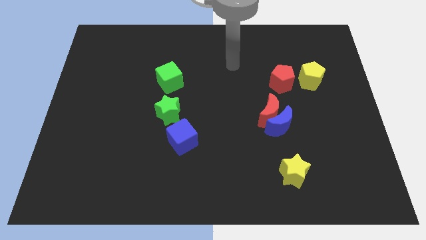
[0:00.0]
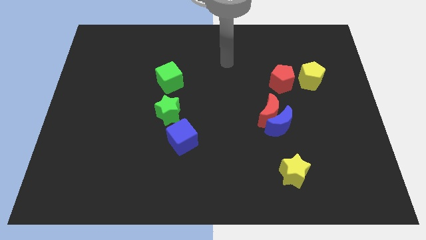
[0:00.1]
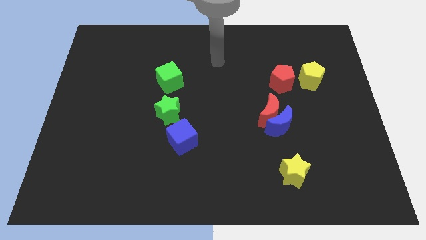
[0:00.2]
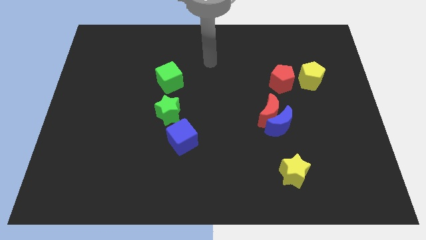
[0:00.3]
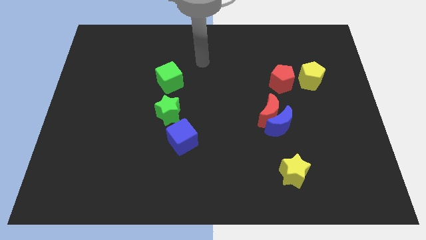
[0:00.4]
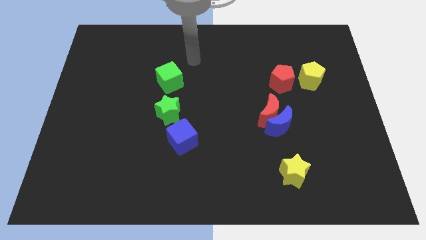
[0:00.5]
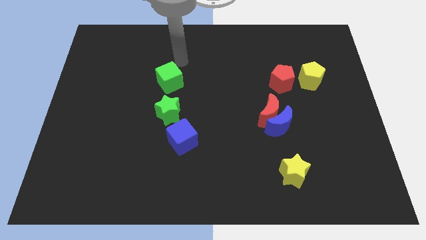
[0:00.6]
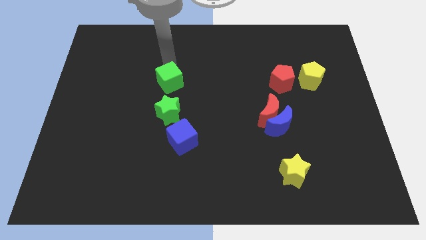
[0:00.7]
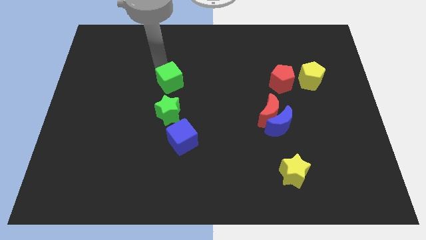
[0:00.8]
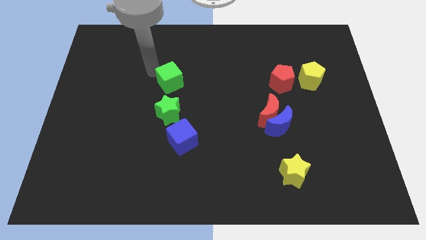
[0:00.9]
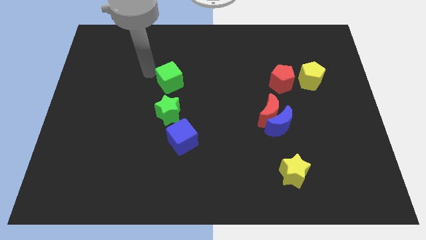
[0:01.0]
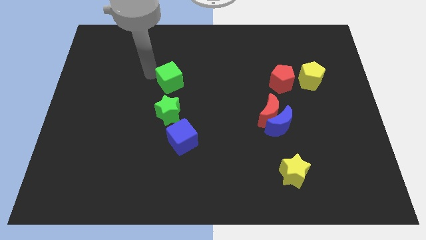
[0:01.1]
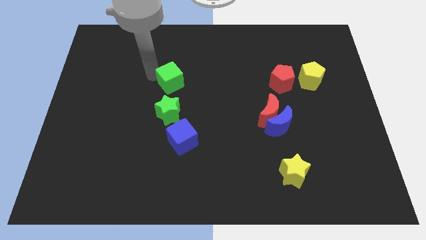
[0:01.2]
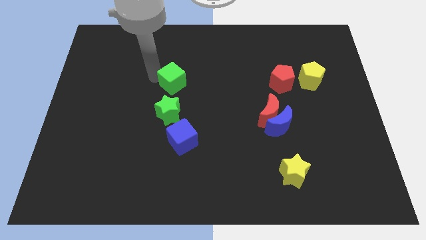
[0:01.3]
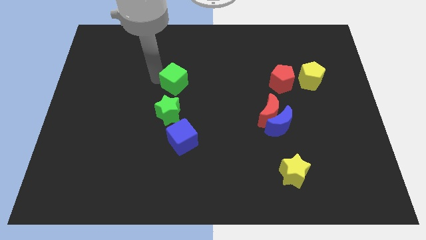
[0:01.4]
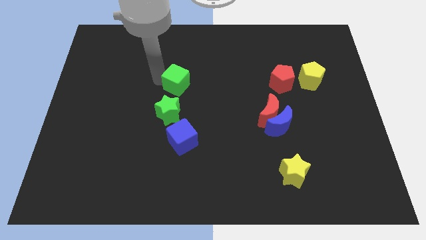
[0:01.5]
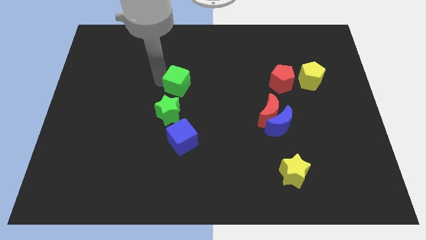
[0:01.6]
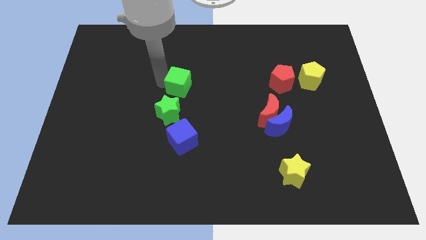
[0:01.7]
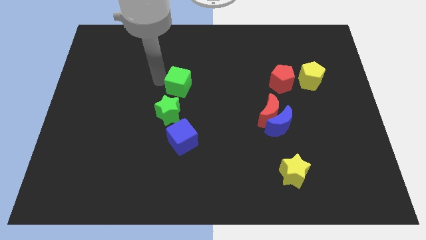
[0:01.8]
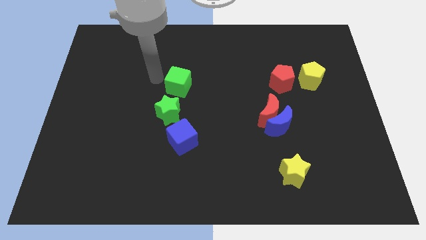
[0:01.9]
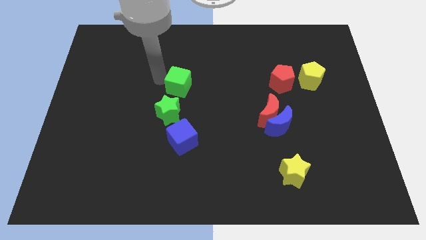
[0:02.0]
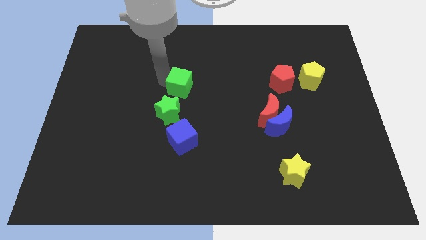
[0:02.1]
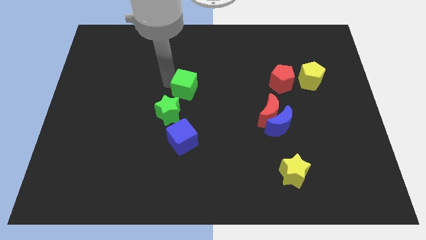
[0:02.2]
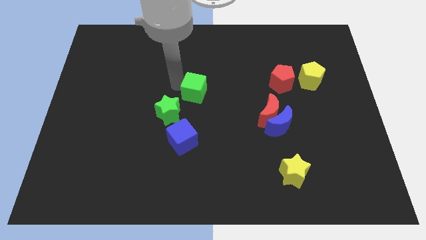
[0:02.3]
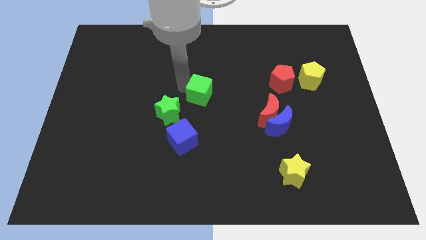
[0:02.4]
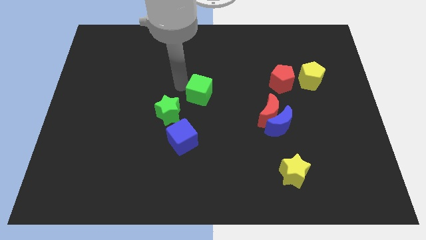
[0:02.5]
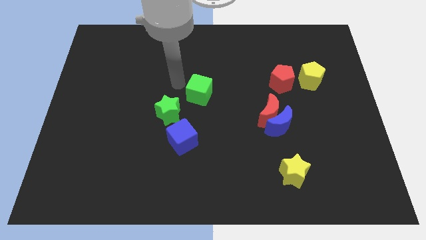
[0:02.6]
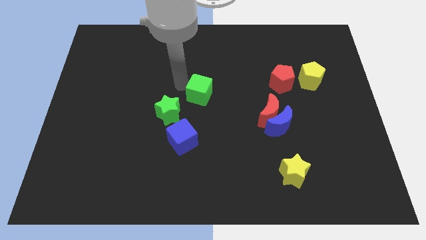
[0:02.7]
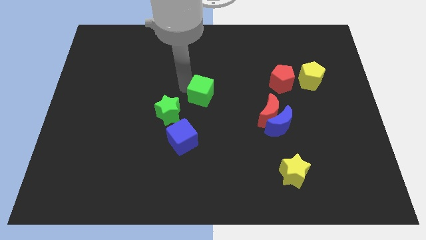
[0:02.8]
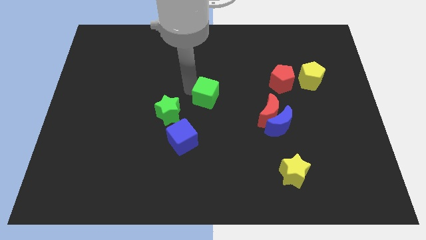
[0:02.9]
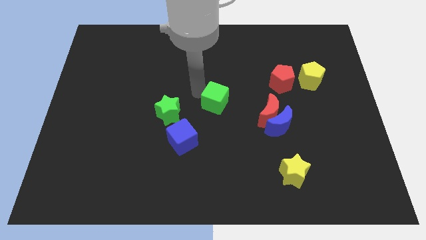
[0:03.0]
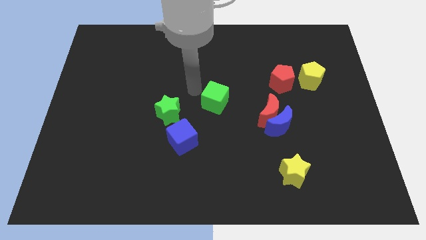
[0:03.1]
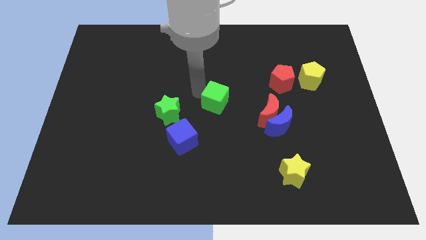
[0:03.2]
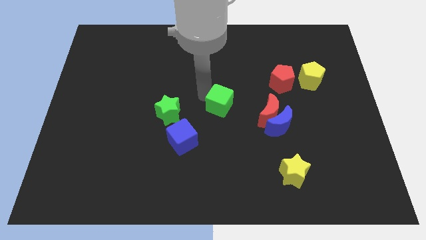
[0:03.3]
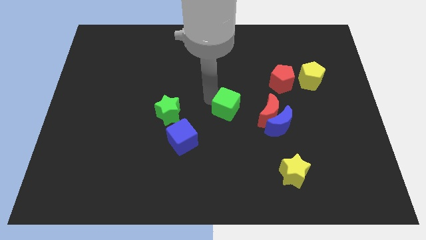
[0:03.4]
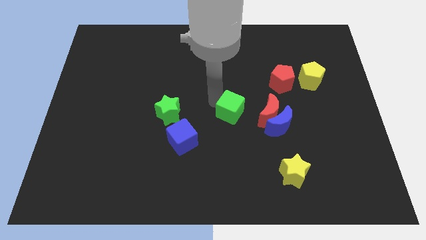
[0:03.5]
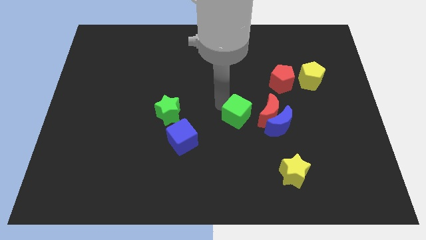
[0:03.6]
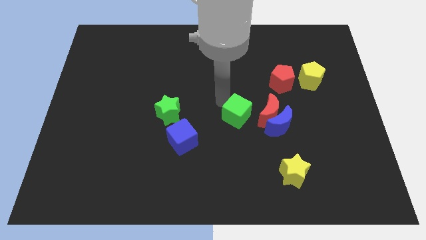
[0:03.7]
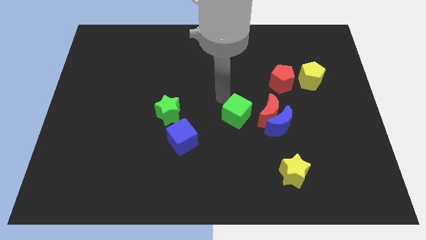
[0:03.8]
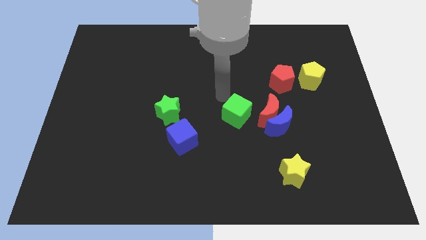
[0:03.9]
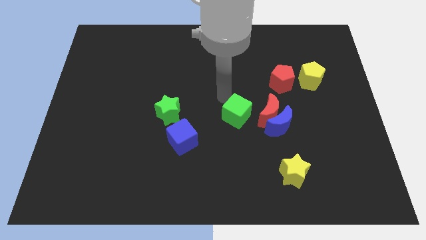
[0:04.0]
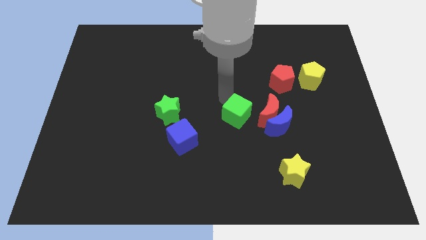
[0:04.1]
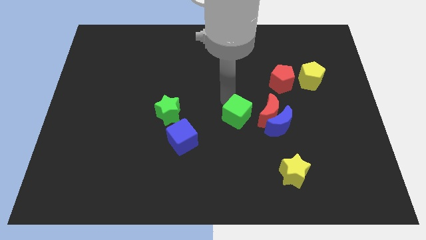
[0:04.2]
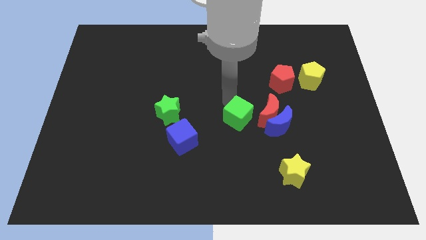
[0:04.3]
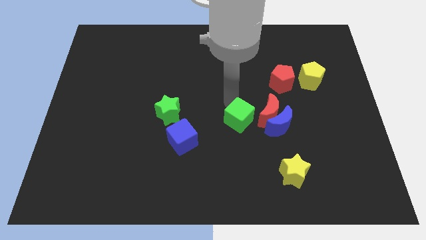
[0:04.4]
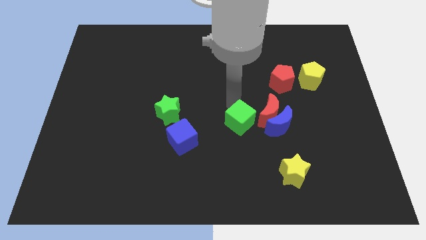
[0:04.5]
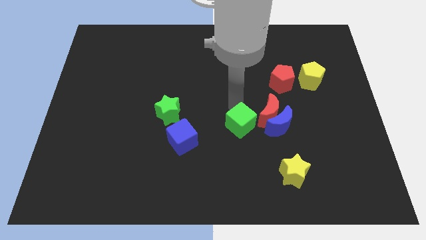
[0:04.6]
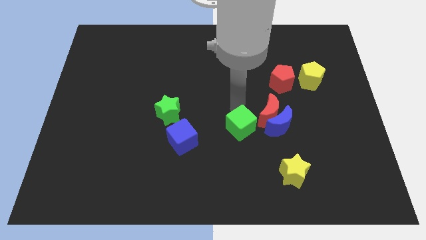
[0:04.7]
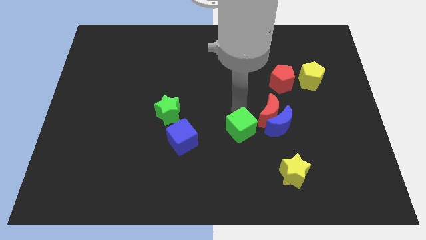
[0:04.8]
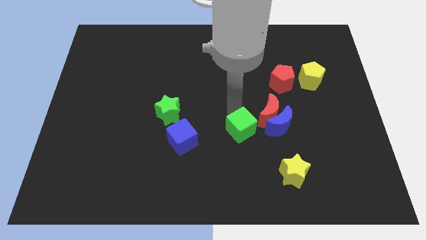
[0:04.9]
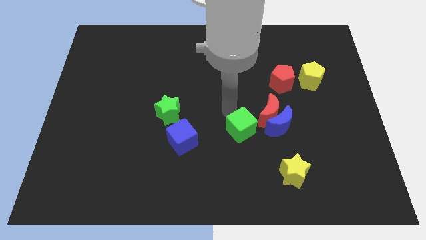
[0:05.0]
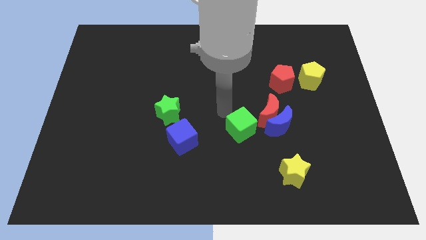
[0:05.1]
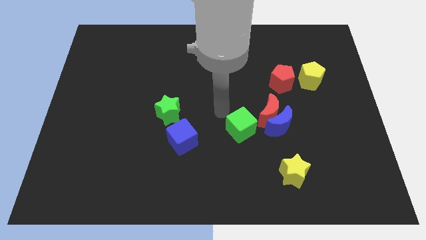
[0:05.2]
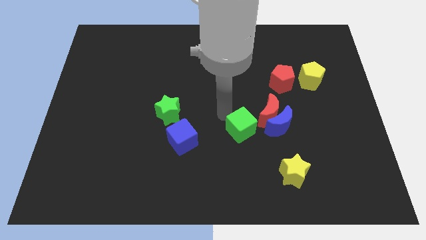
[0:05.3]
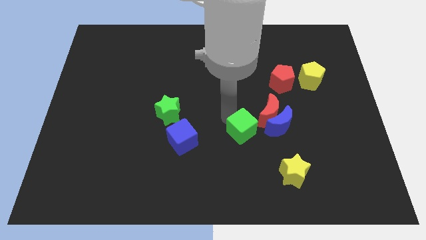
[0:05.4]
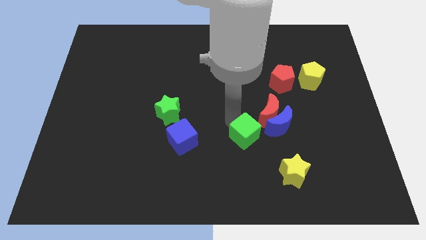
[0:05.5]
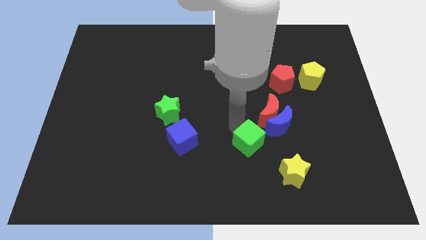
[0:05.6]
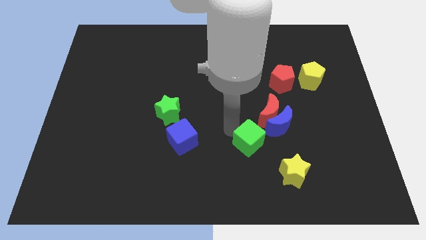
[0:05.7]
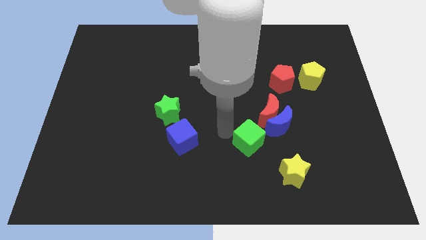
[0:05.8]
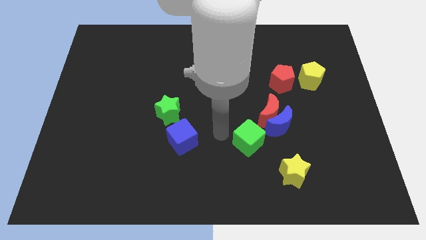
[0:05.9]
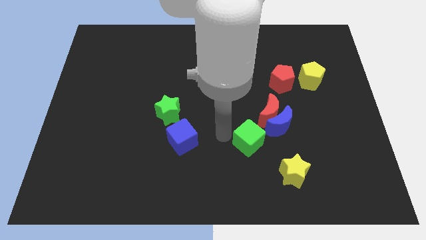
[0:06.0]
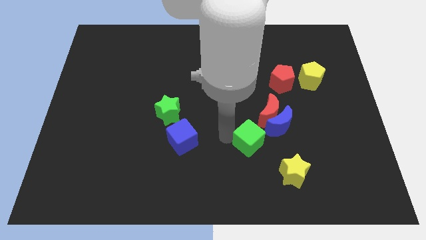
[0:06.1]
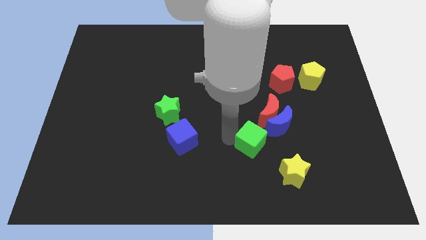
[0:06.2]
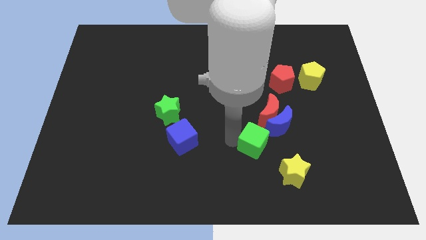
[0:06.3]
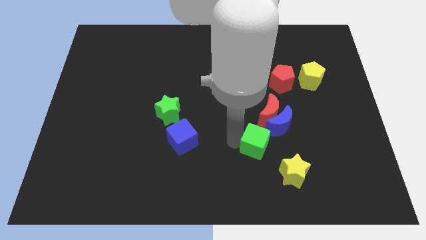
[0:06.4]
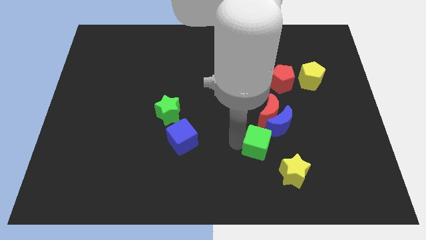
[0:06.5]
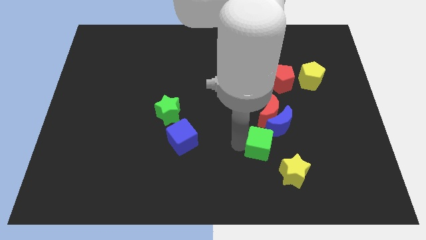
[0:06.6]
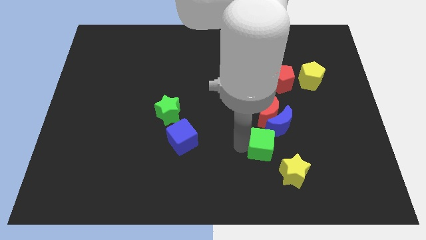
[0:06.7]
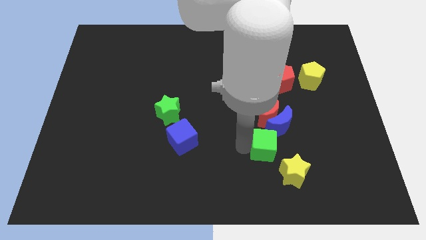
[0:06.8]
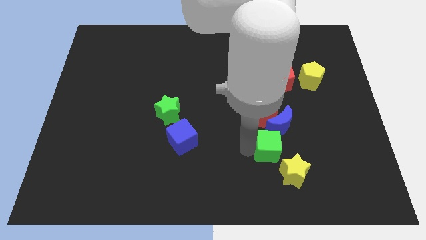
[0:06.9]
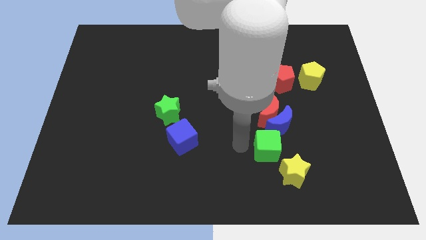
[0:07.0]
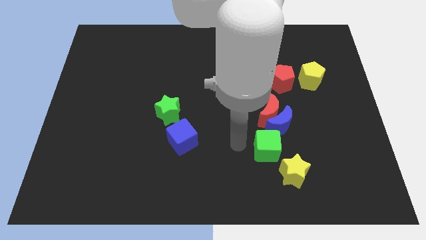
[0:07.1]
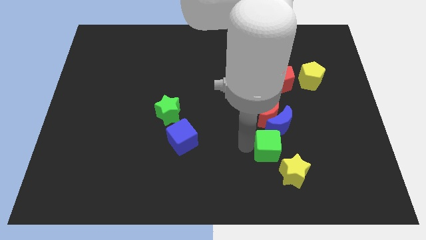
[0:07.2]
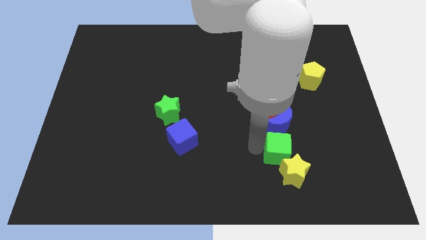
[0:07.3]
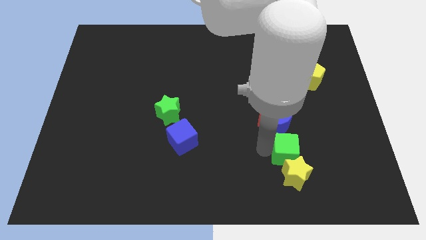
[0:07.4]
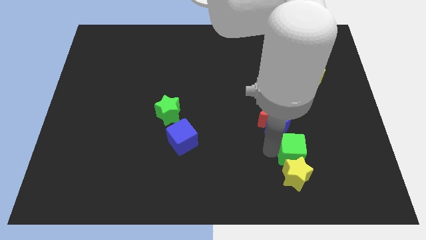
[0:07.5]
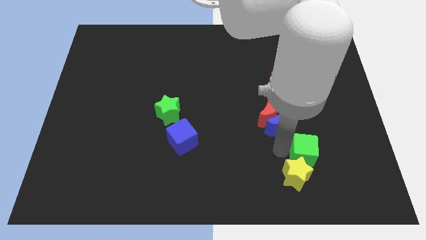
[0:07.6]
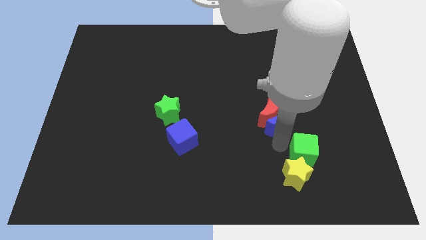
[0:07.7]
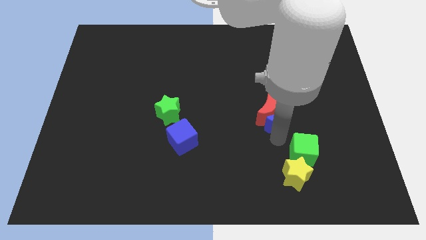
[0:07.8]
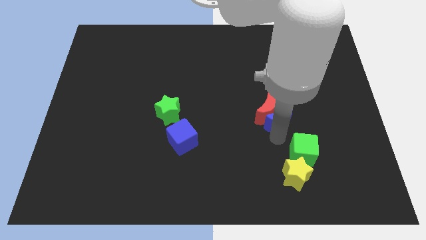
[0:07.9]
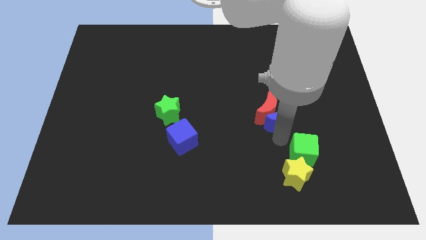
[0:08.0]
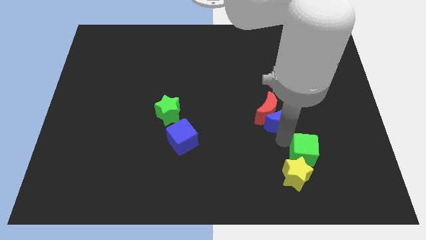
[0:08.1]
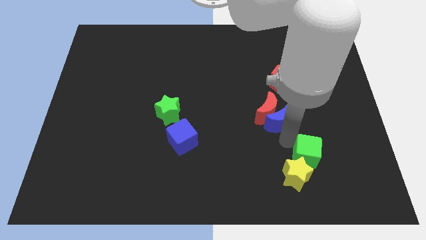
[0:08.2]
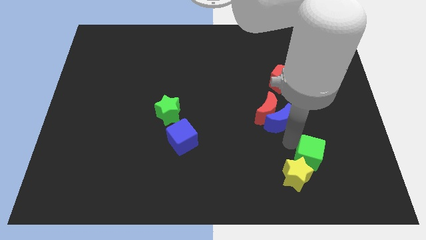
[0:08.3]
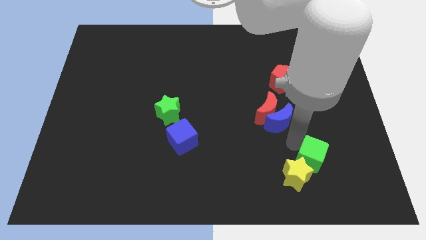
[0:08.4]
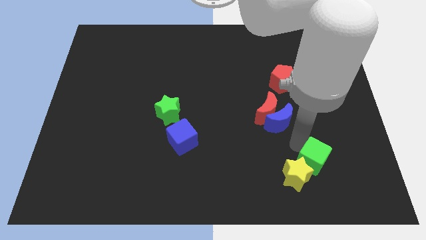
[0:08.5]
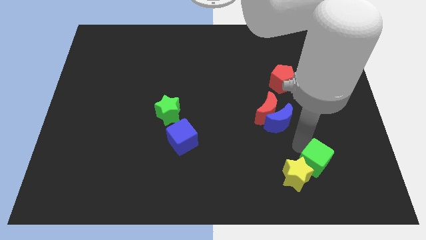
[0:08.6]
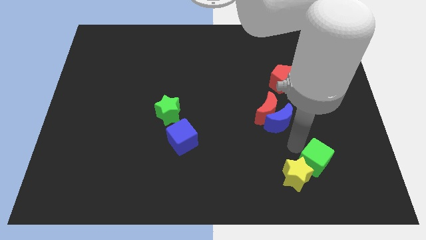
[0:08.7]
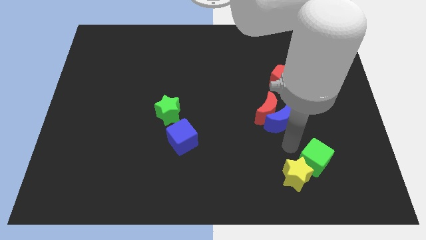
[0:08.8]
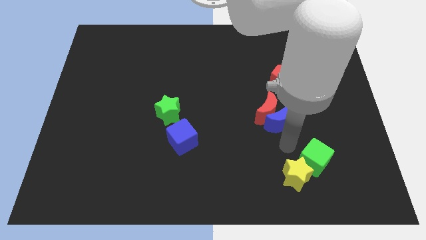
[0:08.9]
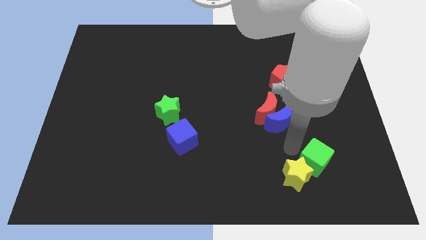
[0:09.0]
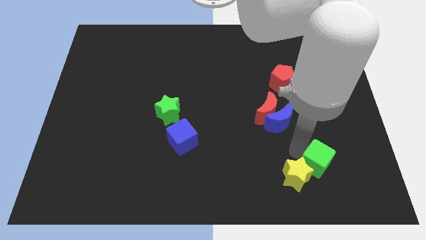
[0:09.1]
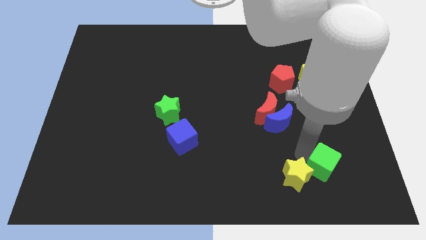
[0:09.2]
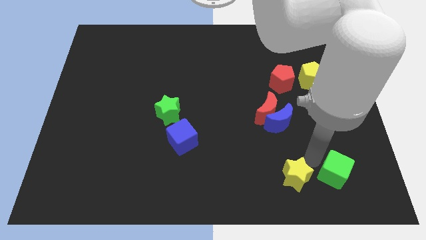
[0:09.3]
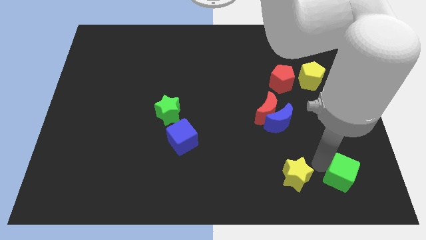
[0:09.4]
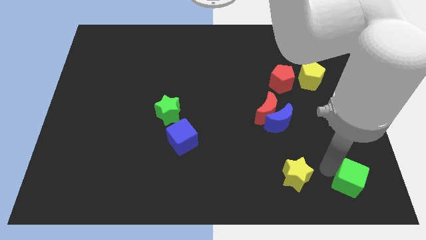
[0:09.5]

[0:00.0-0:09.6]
slide the green cube to the bottom right corner
